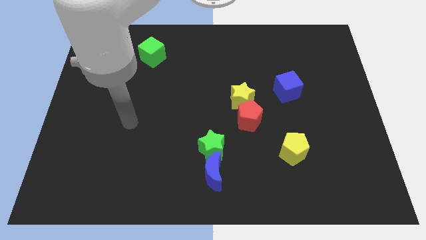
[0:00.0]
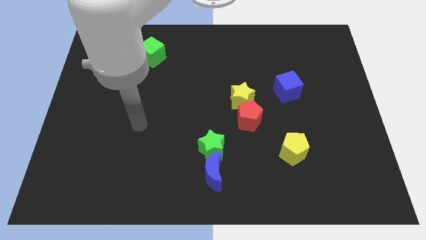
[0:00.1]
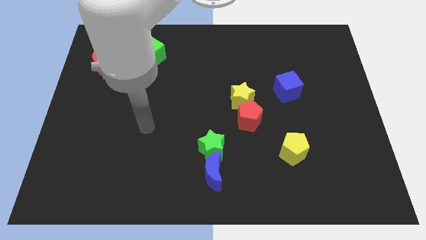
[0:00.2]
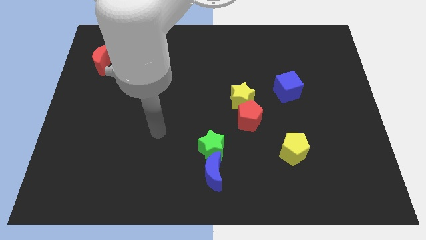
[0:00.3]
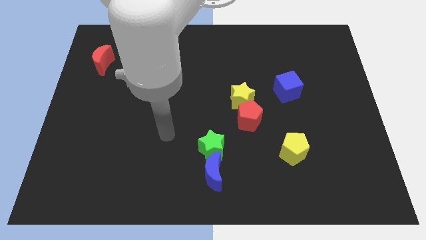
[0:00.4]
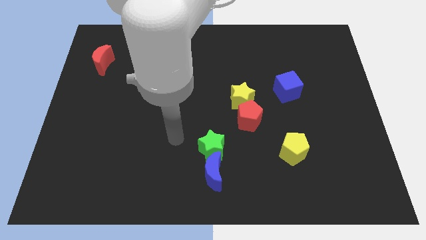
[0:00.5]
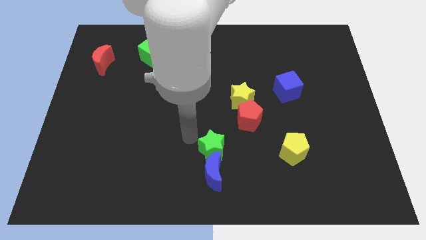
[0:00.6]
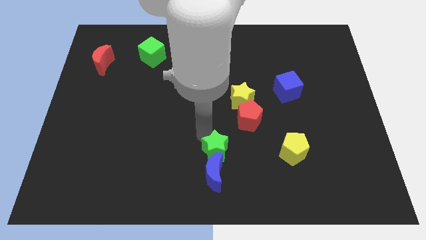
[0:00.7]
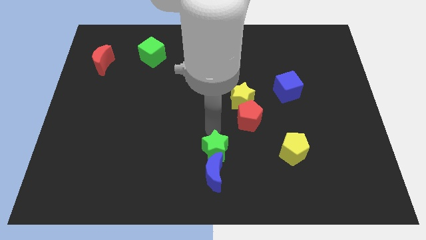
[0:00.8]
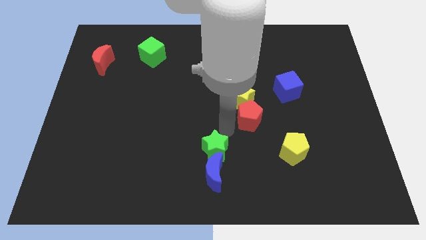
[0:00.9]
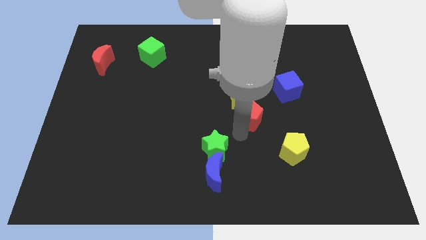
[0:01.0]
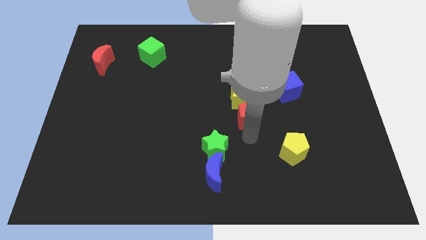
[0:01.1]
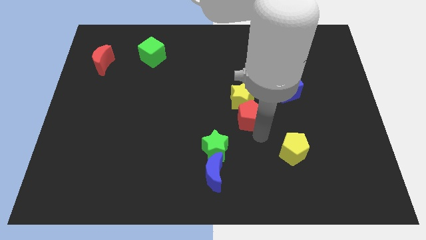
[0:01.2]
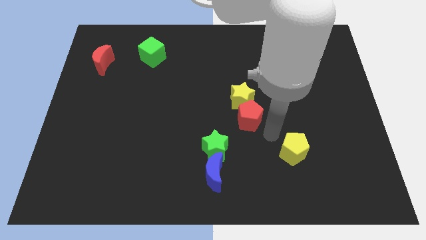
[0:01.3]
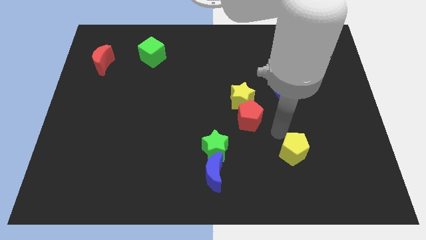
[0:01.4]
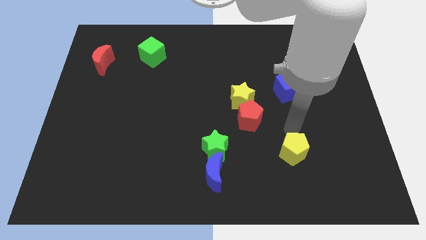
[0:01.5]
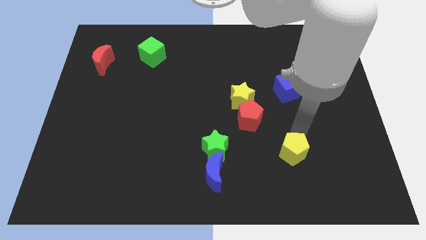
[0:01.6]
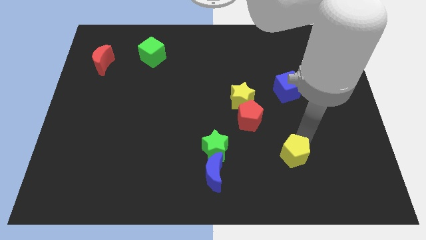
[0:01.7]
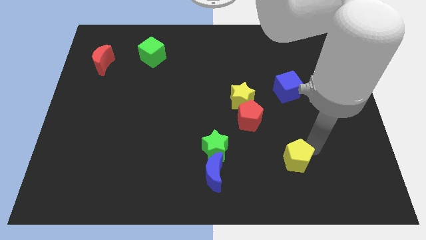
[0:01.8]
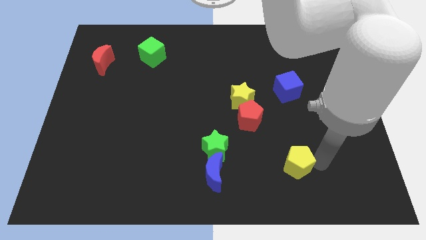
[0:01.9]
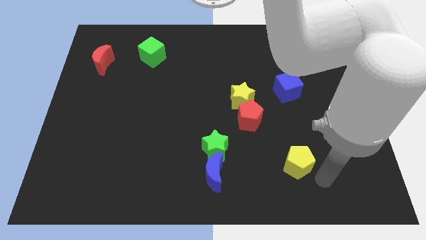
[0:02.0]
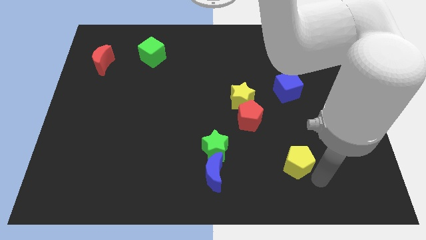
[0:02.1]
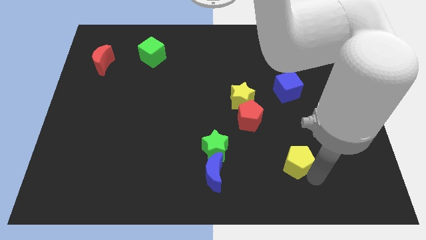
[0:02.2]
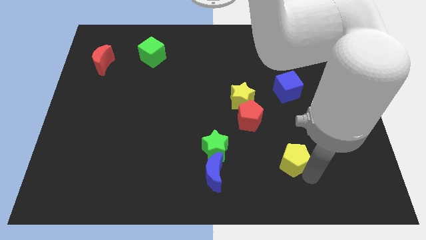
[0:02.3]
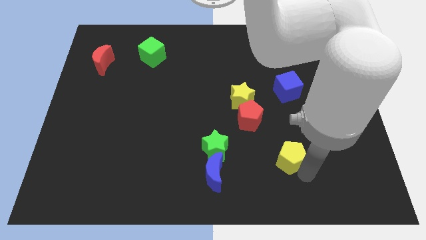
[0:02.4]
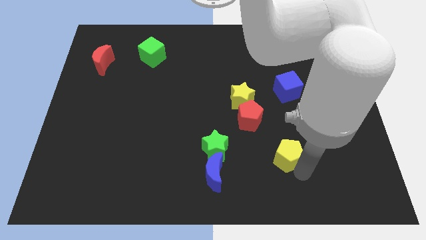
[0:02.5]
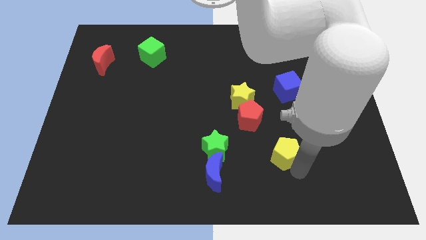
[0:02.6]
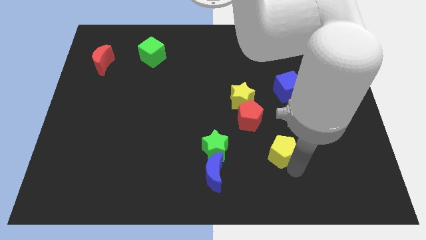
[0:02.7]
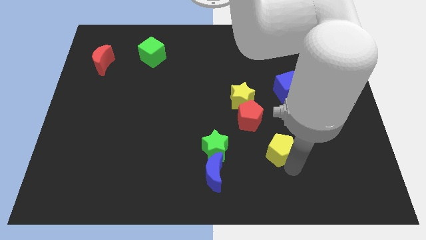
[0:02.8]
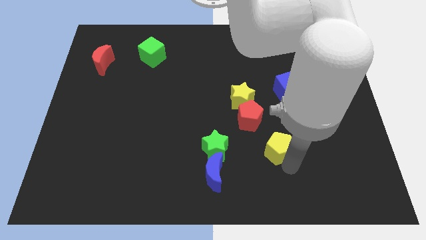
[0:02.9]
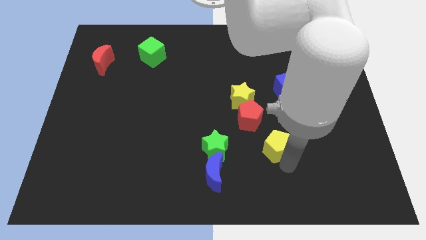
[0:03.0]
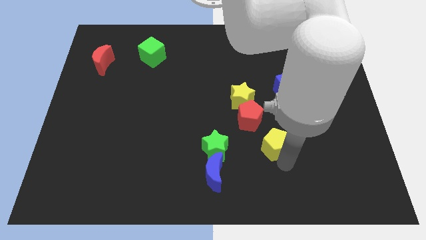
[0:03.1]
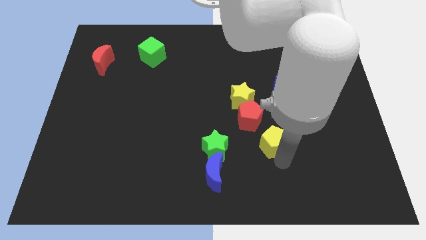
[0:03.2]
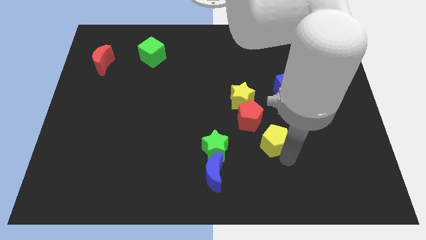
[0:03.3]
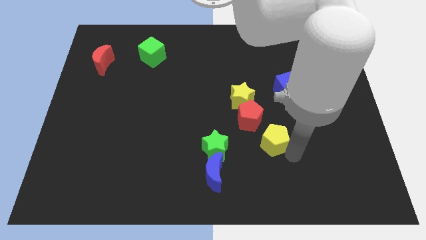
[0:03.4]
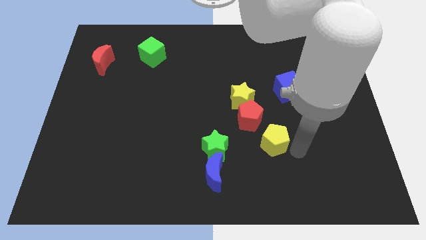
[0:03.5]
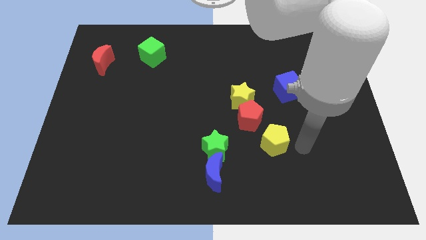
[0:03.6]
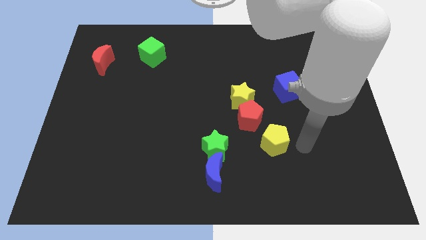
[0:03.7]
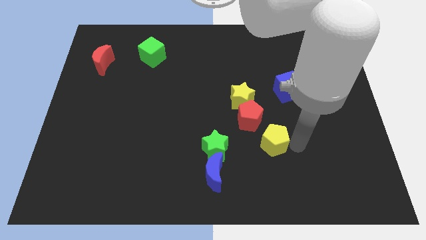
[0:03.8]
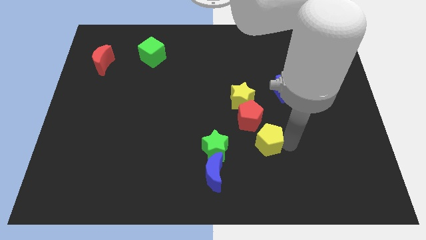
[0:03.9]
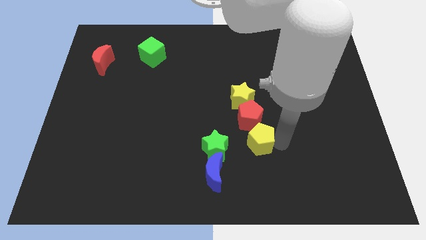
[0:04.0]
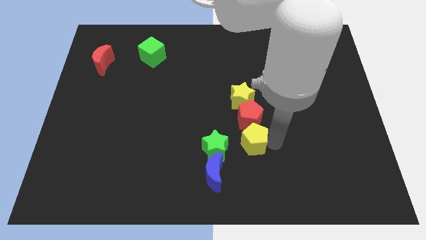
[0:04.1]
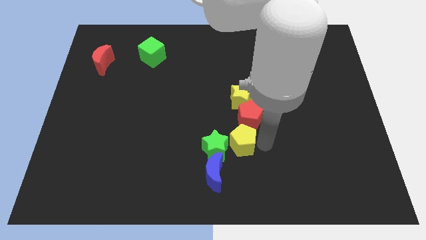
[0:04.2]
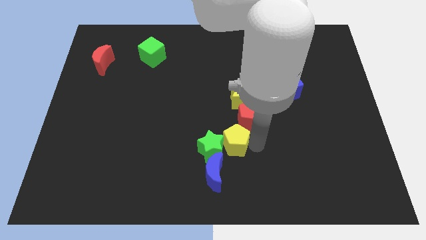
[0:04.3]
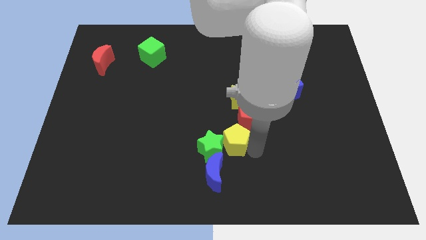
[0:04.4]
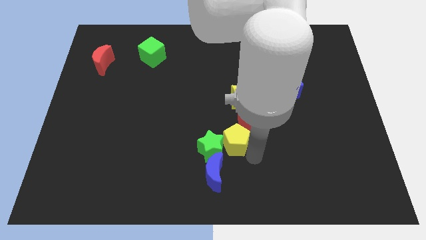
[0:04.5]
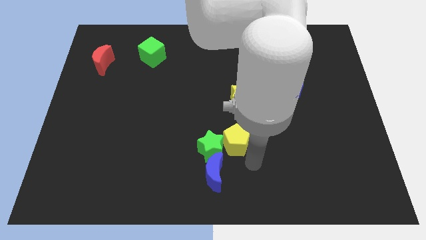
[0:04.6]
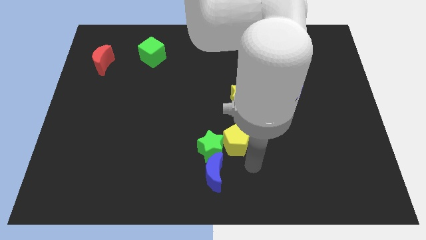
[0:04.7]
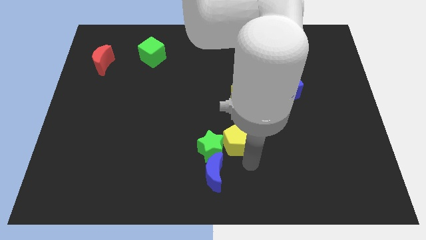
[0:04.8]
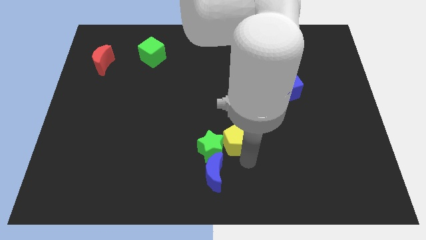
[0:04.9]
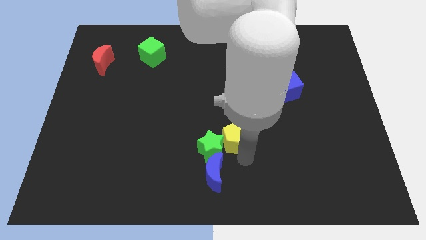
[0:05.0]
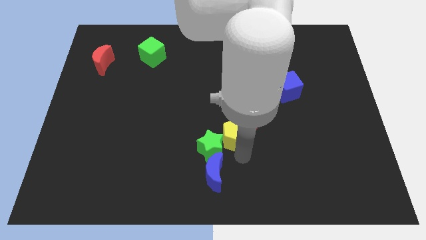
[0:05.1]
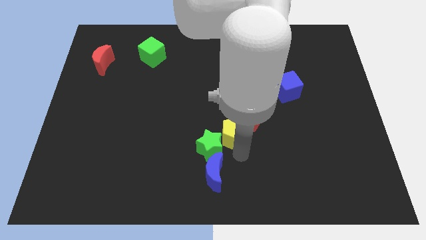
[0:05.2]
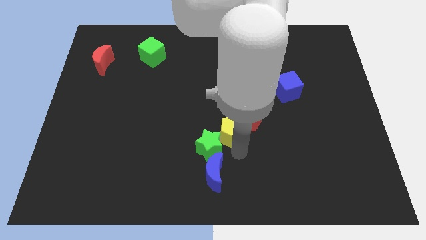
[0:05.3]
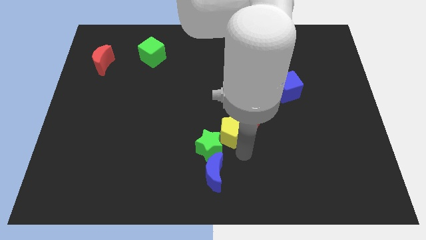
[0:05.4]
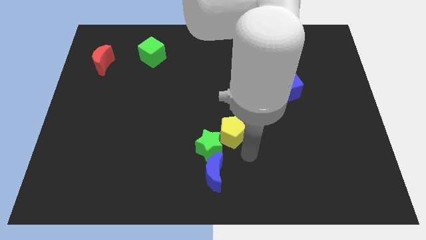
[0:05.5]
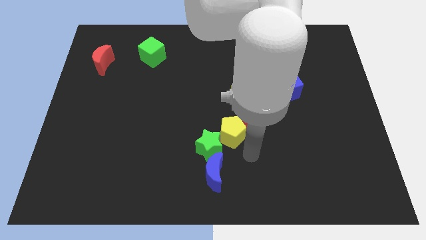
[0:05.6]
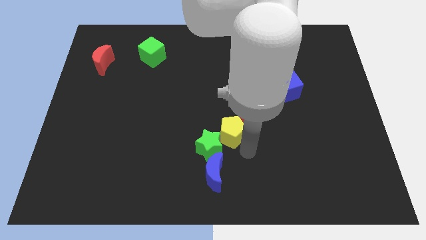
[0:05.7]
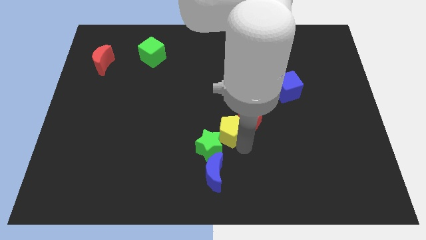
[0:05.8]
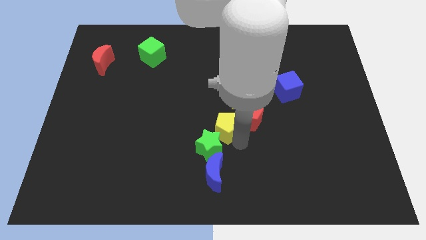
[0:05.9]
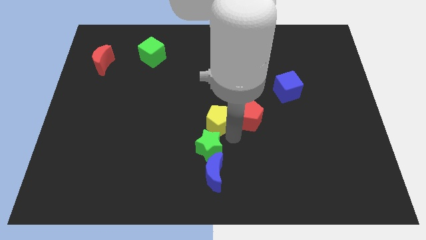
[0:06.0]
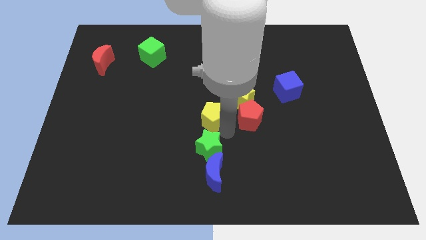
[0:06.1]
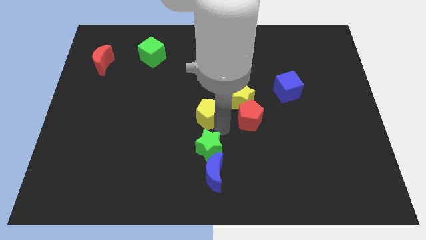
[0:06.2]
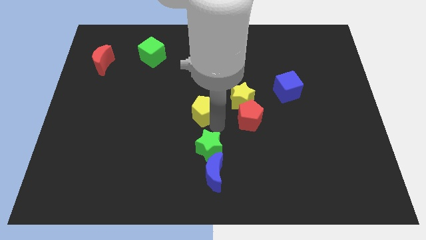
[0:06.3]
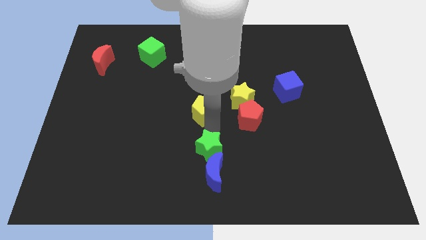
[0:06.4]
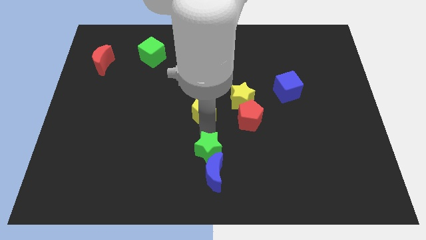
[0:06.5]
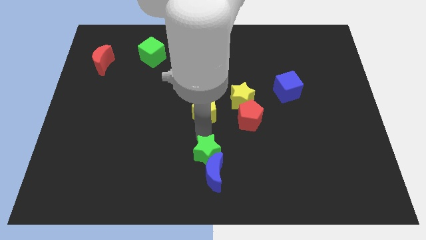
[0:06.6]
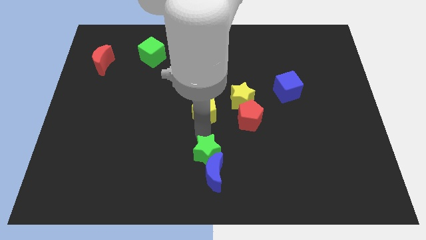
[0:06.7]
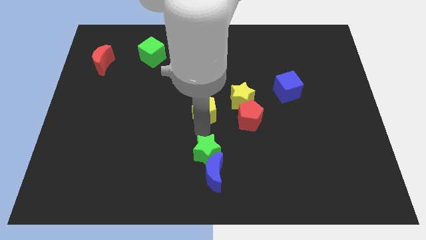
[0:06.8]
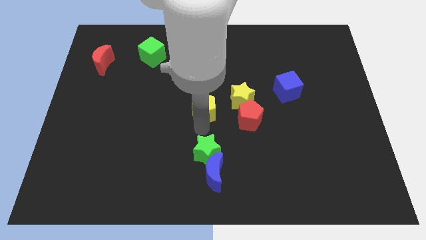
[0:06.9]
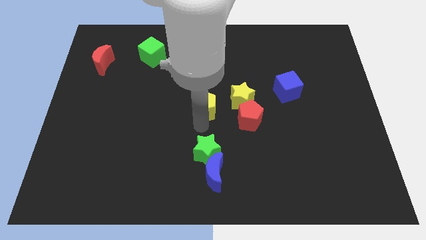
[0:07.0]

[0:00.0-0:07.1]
push the yellow pentagon upwards and to the left

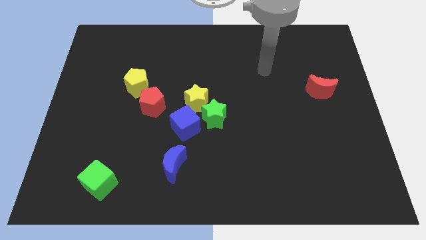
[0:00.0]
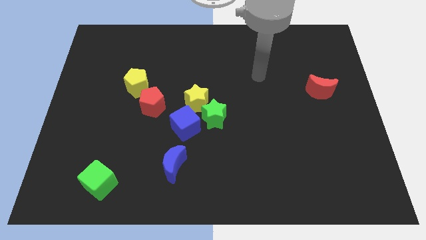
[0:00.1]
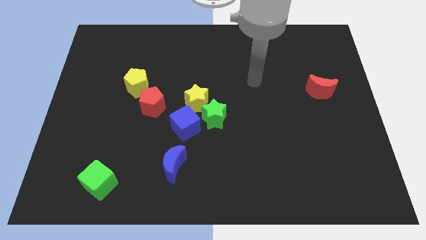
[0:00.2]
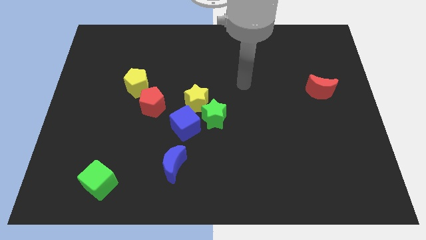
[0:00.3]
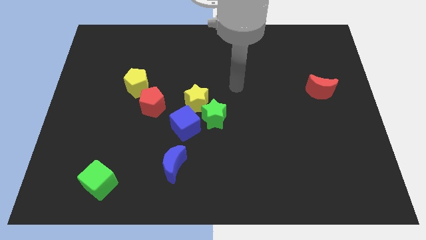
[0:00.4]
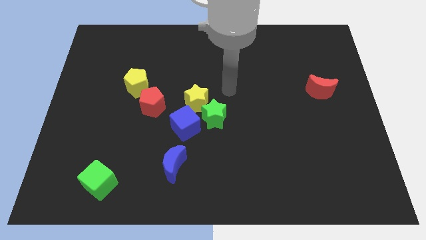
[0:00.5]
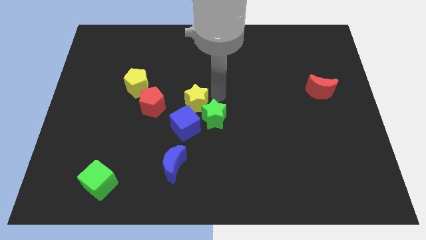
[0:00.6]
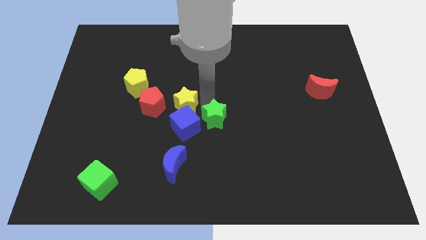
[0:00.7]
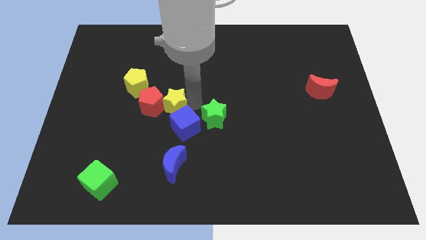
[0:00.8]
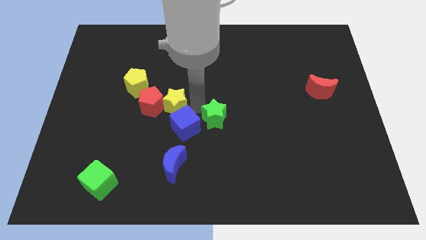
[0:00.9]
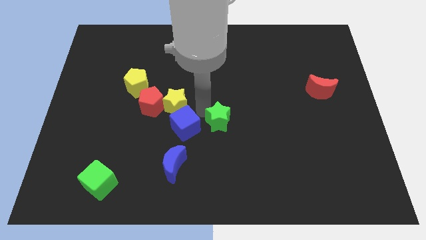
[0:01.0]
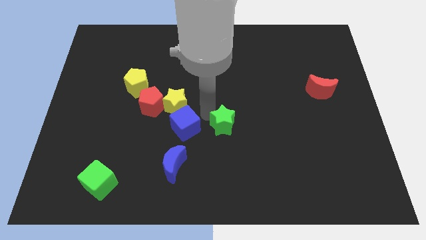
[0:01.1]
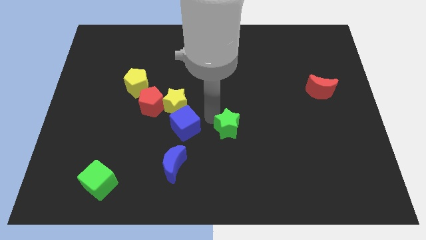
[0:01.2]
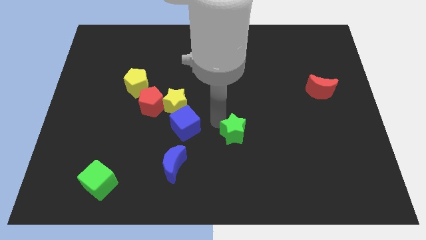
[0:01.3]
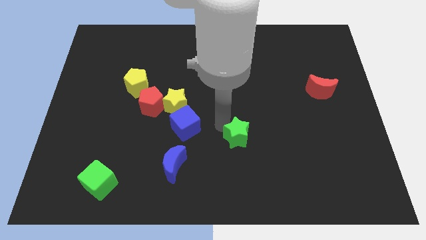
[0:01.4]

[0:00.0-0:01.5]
slide the green star down and to the right diagonally somewhat
